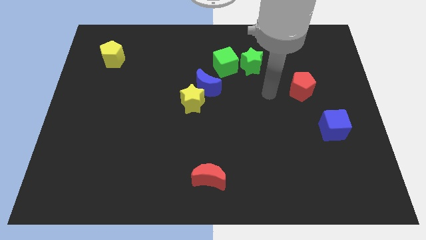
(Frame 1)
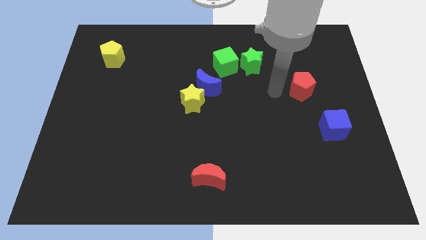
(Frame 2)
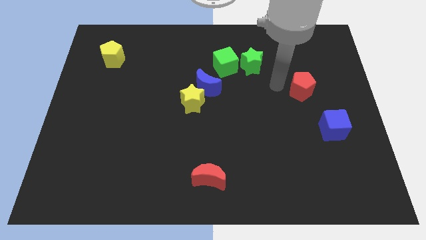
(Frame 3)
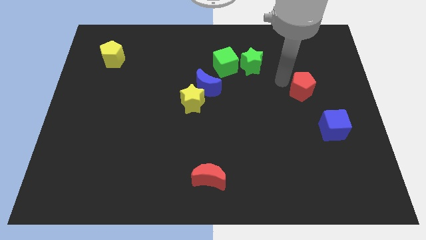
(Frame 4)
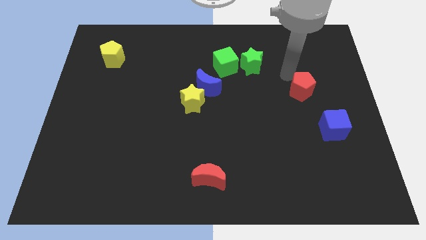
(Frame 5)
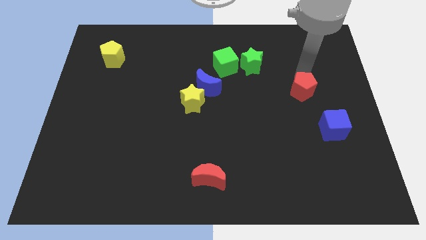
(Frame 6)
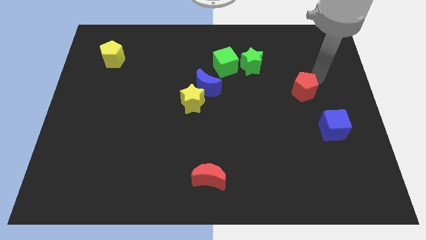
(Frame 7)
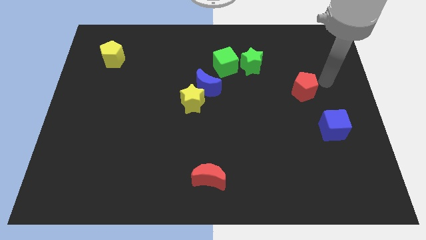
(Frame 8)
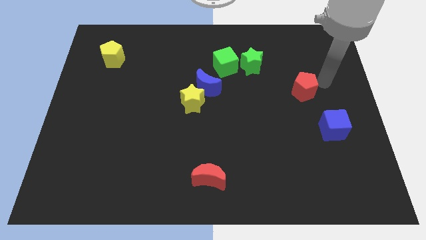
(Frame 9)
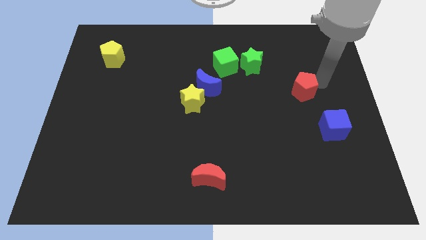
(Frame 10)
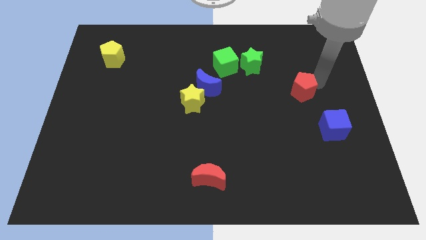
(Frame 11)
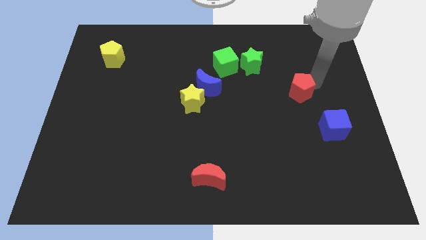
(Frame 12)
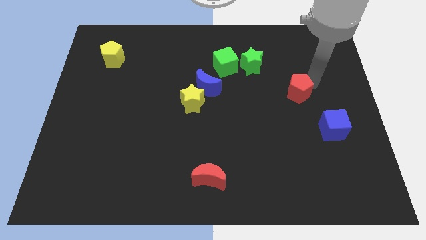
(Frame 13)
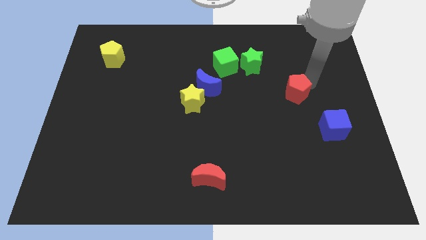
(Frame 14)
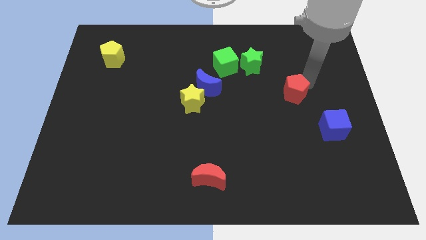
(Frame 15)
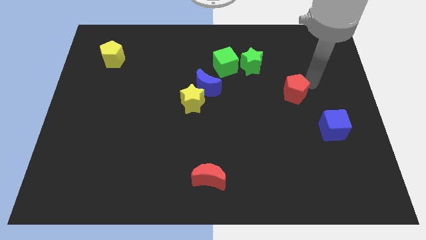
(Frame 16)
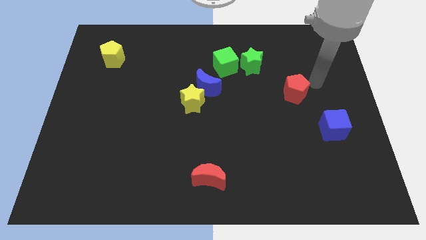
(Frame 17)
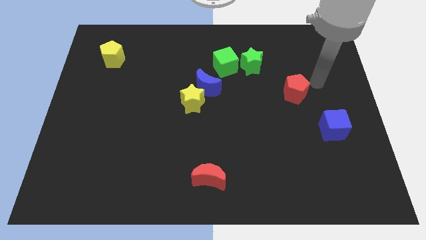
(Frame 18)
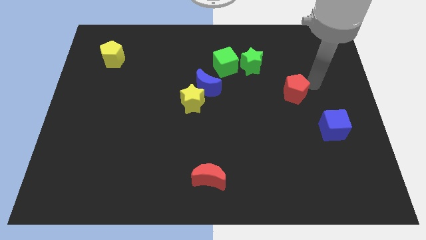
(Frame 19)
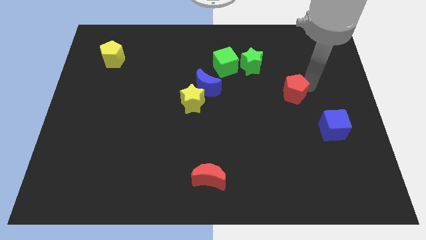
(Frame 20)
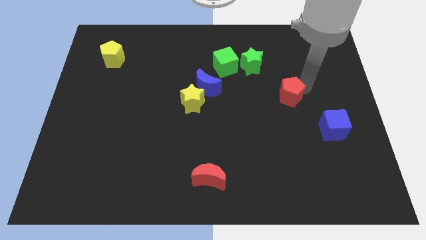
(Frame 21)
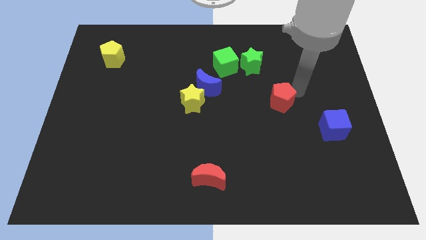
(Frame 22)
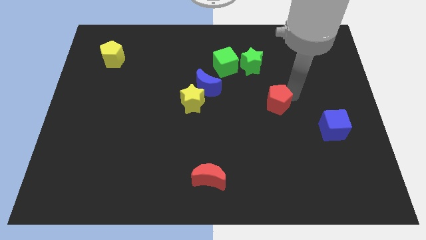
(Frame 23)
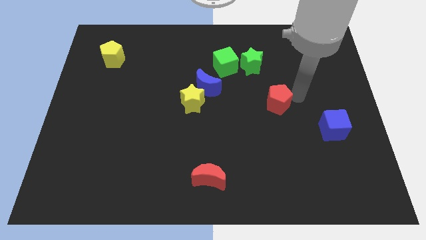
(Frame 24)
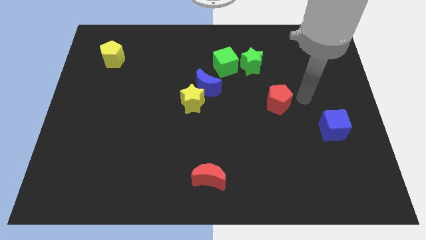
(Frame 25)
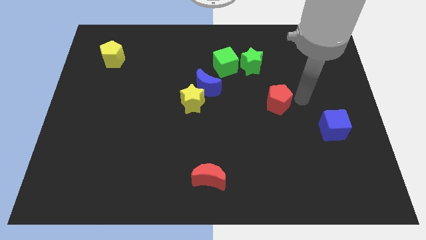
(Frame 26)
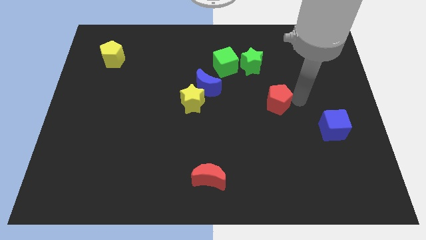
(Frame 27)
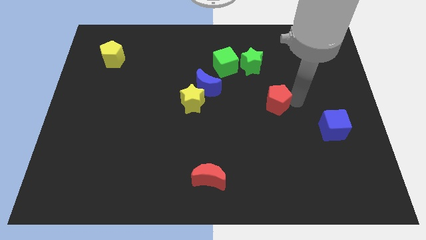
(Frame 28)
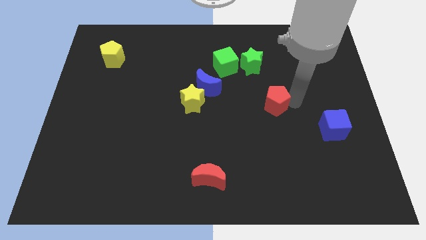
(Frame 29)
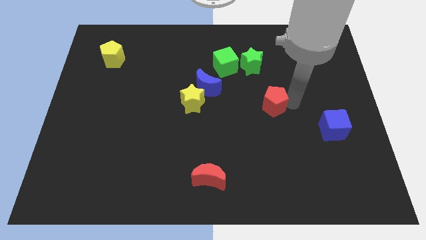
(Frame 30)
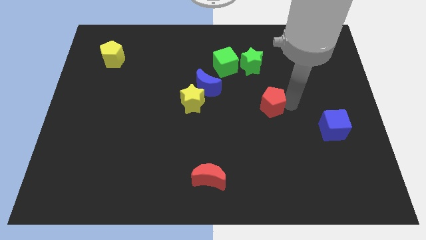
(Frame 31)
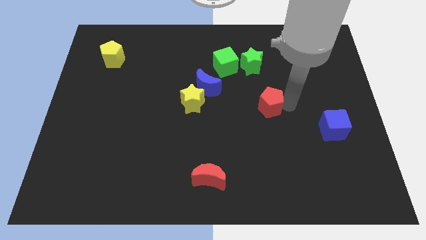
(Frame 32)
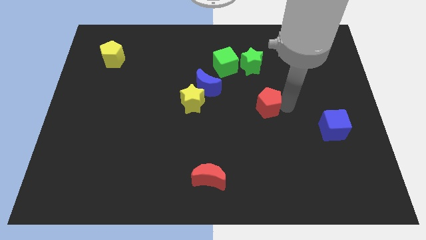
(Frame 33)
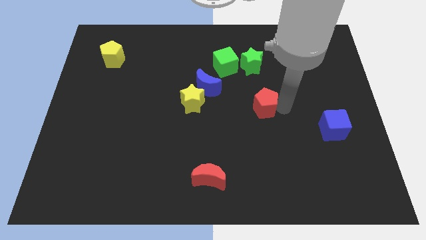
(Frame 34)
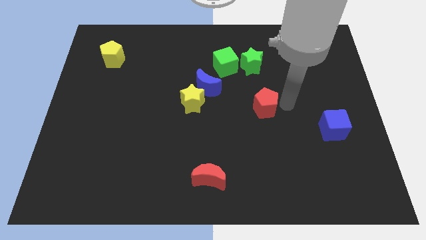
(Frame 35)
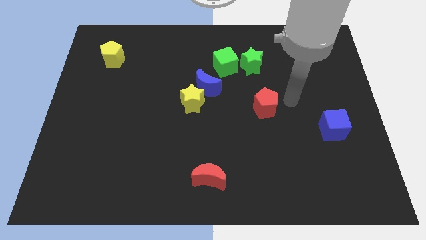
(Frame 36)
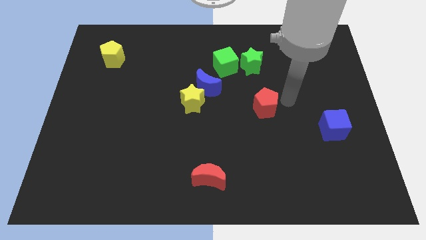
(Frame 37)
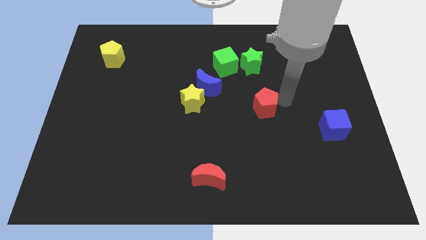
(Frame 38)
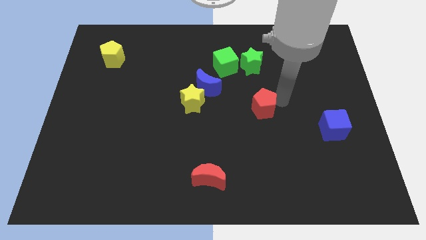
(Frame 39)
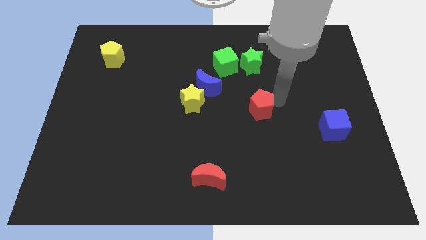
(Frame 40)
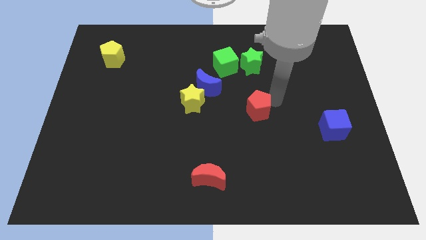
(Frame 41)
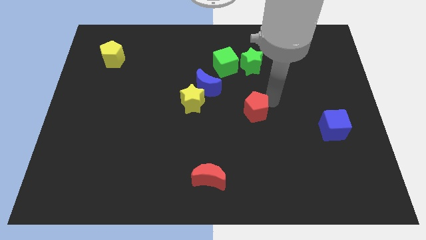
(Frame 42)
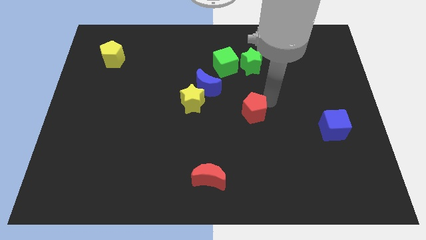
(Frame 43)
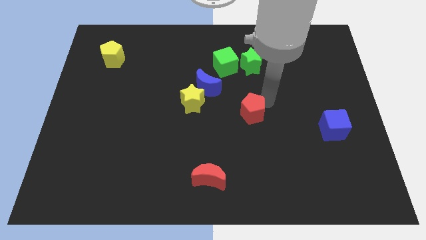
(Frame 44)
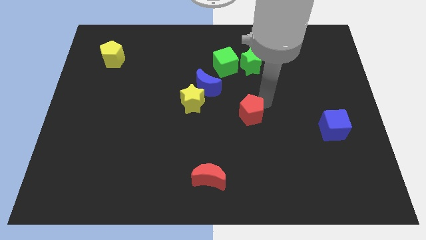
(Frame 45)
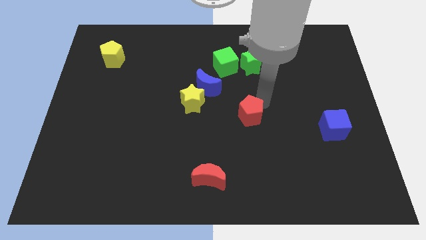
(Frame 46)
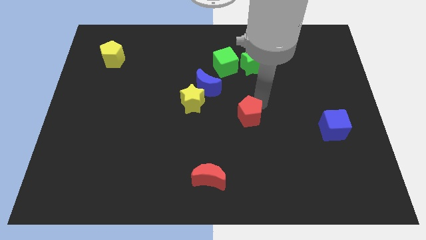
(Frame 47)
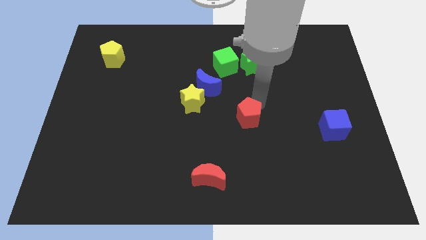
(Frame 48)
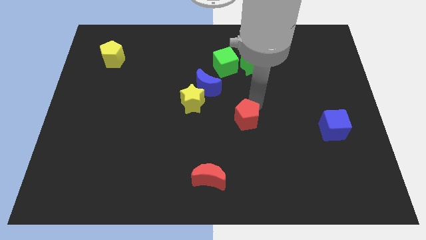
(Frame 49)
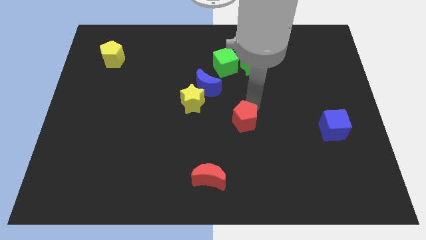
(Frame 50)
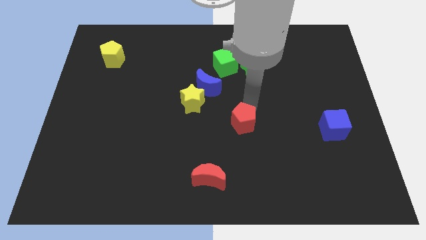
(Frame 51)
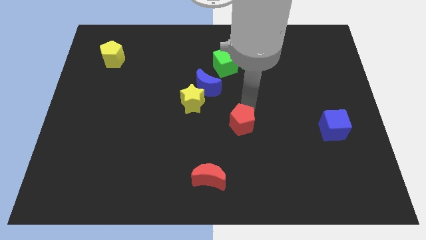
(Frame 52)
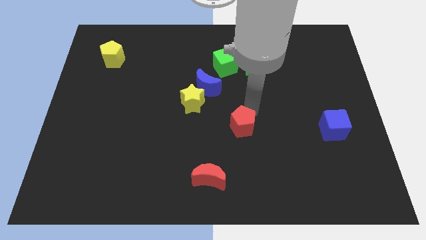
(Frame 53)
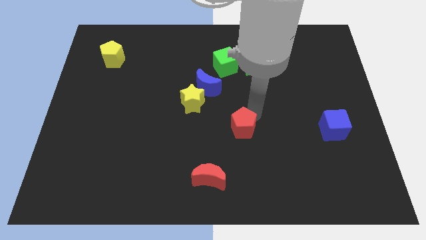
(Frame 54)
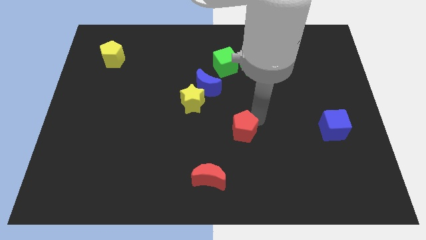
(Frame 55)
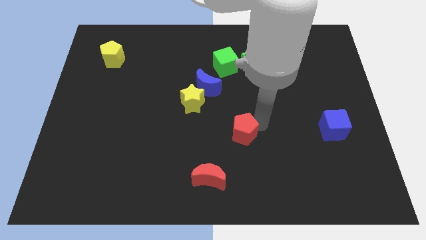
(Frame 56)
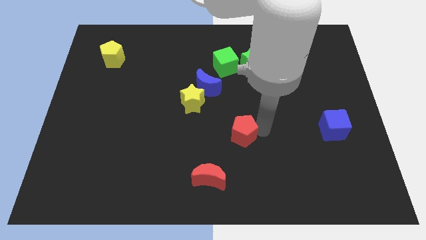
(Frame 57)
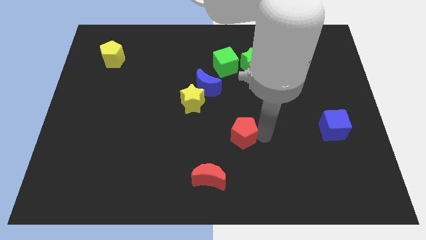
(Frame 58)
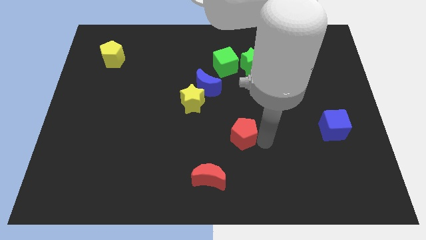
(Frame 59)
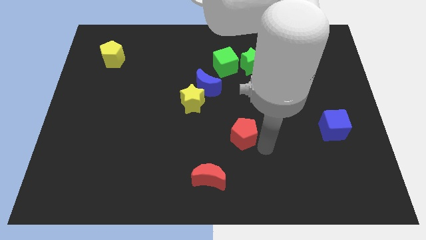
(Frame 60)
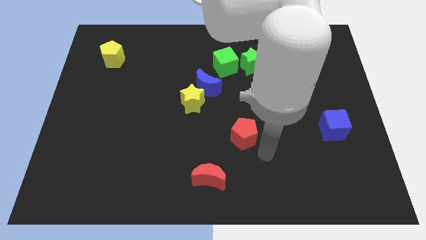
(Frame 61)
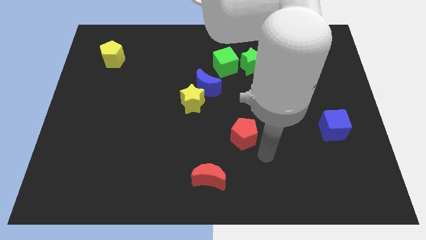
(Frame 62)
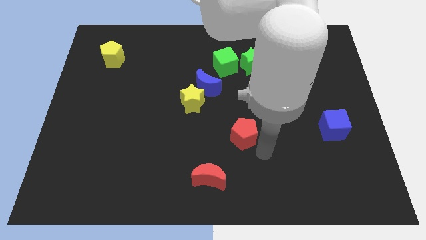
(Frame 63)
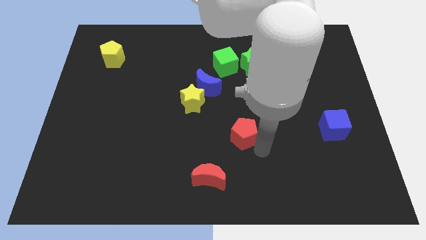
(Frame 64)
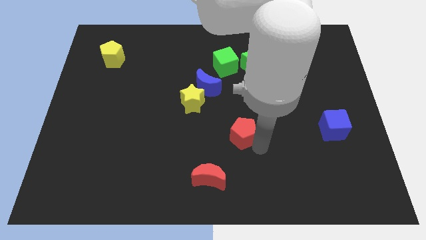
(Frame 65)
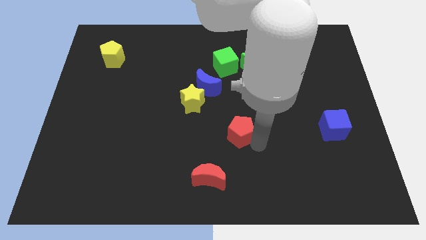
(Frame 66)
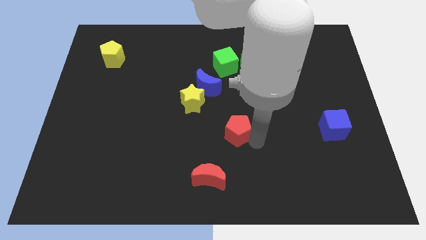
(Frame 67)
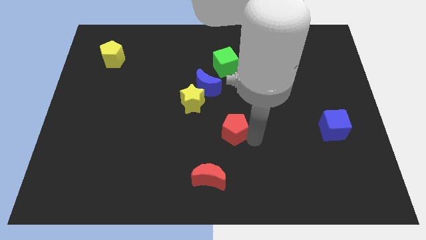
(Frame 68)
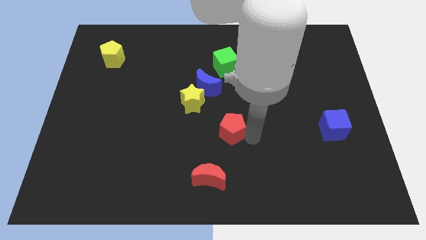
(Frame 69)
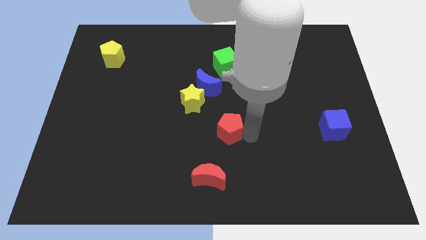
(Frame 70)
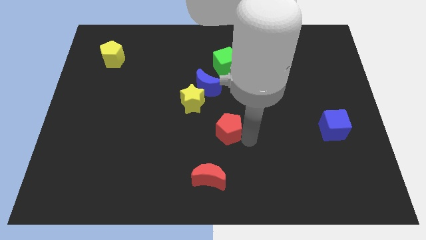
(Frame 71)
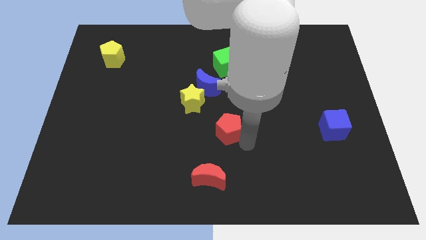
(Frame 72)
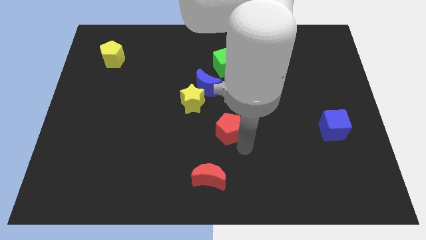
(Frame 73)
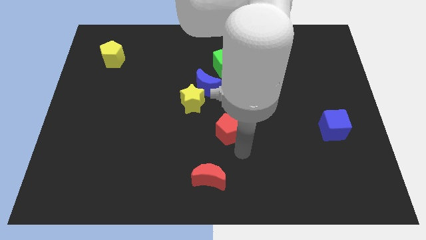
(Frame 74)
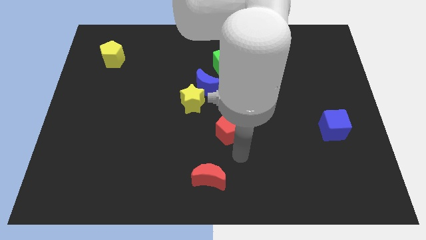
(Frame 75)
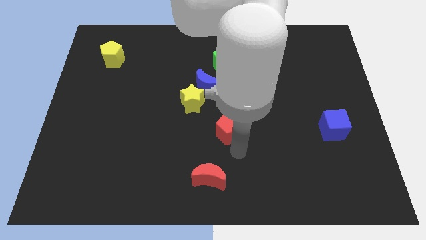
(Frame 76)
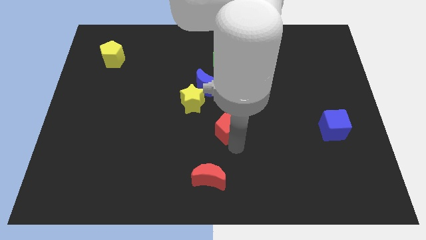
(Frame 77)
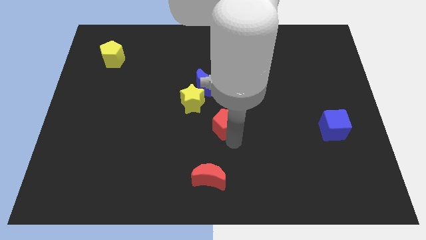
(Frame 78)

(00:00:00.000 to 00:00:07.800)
move the red pentagon to the bottom side of the blue moon

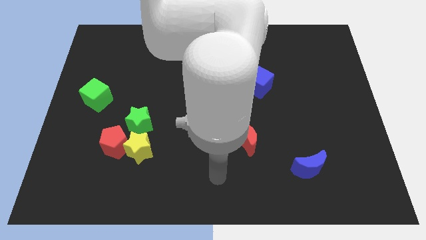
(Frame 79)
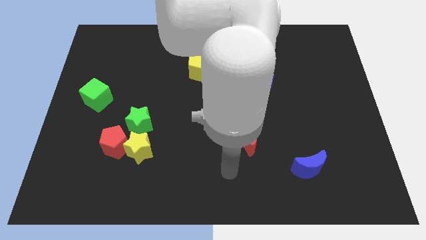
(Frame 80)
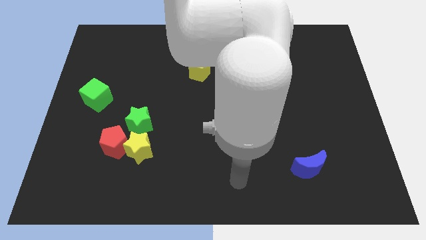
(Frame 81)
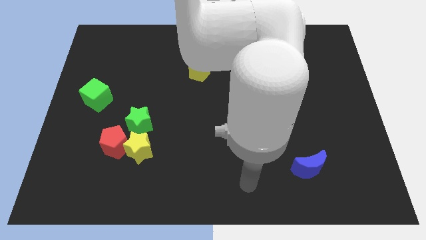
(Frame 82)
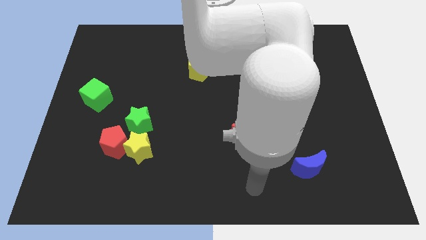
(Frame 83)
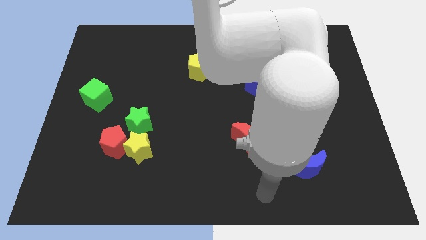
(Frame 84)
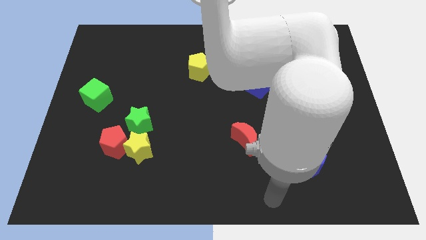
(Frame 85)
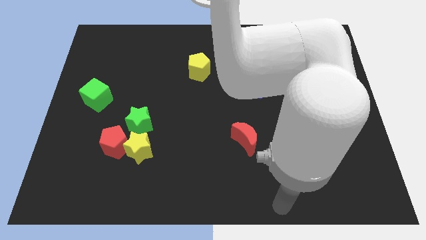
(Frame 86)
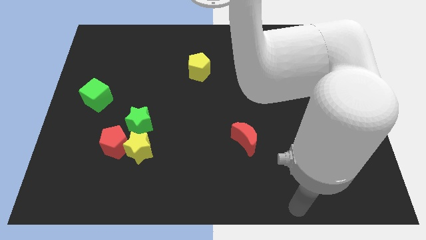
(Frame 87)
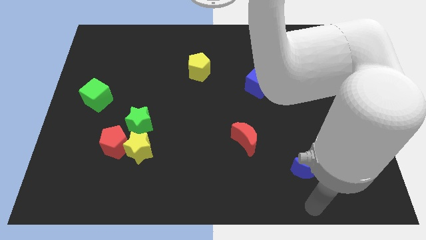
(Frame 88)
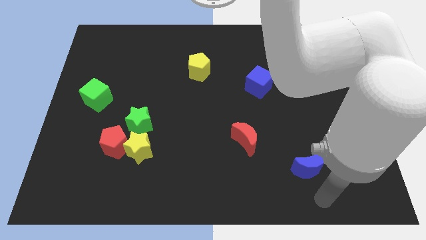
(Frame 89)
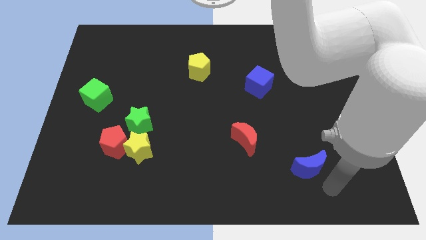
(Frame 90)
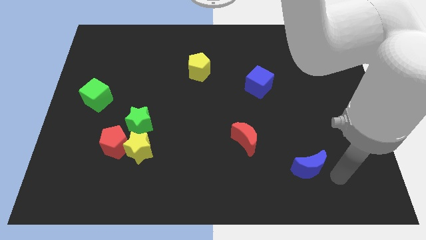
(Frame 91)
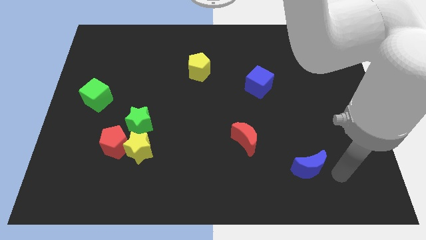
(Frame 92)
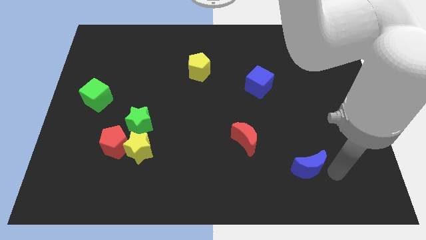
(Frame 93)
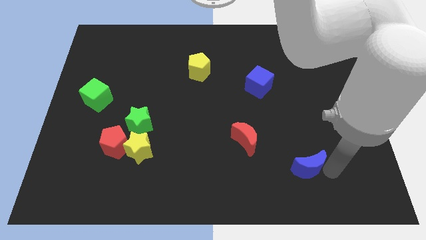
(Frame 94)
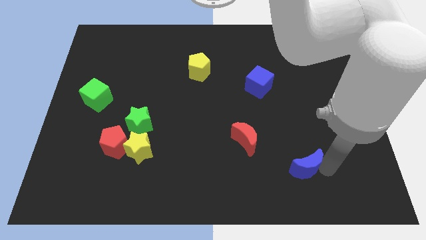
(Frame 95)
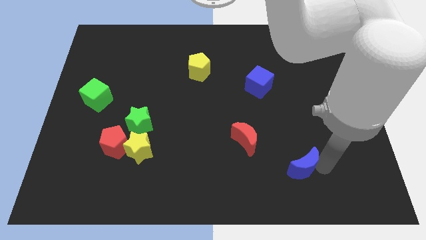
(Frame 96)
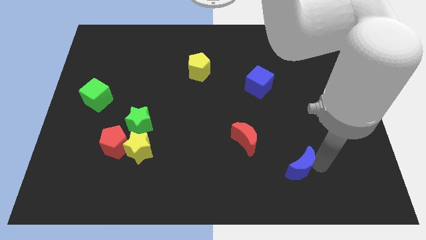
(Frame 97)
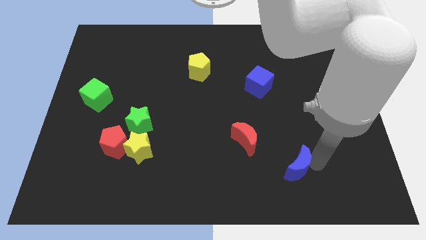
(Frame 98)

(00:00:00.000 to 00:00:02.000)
put the blue moon diagonally down and to the right of the red moon
